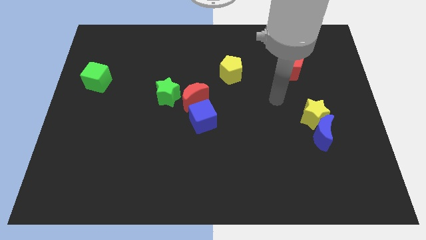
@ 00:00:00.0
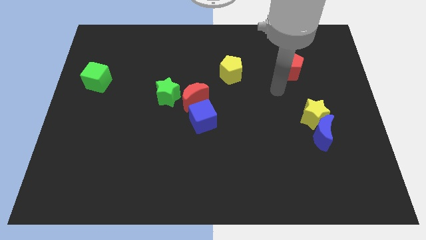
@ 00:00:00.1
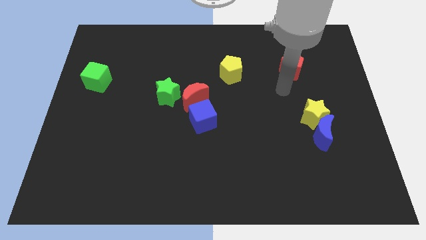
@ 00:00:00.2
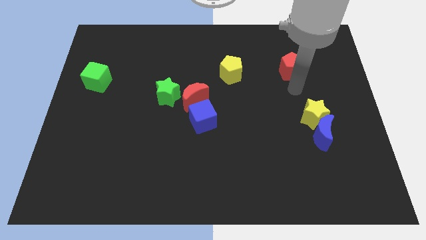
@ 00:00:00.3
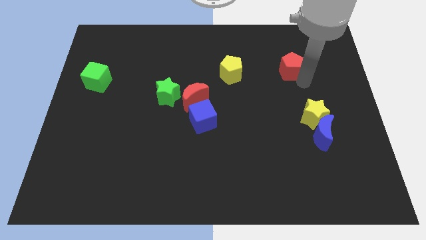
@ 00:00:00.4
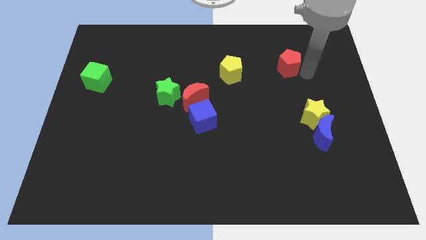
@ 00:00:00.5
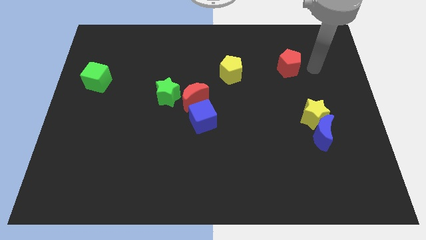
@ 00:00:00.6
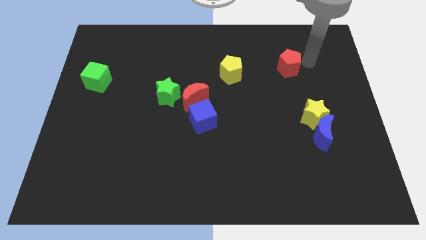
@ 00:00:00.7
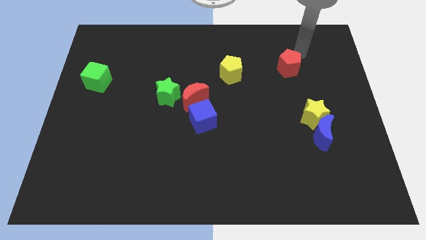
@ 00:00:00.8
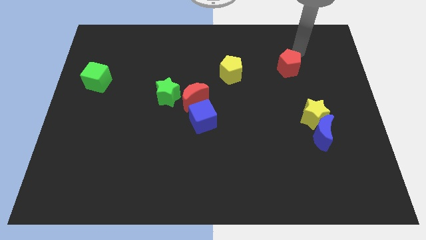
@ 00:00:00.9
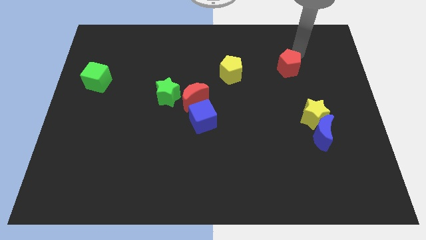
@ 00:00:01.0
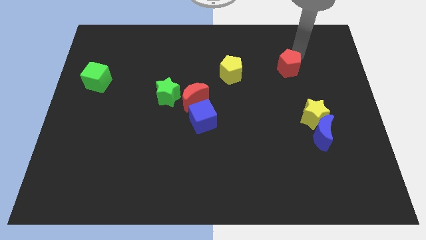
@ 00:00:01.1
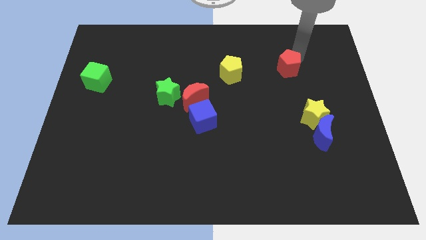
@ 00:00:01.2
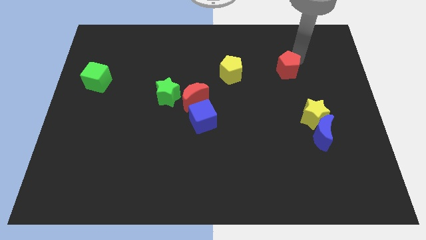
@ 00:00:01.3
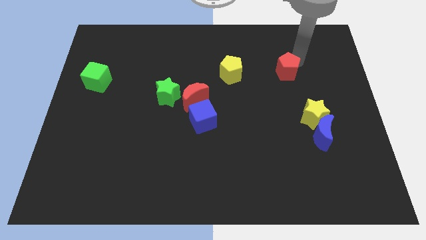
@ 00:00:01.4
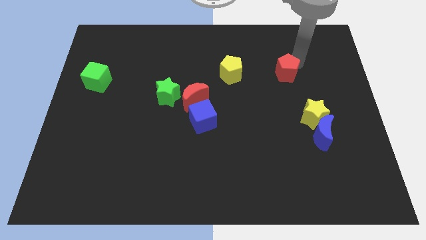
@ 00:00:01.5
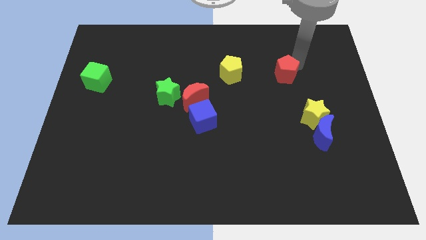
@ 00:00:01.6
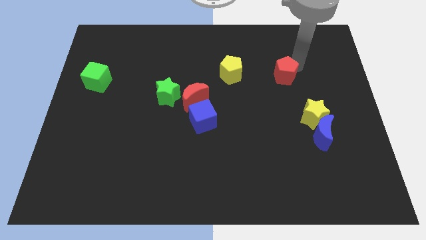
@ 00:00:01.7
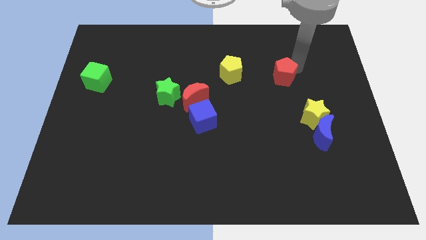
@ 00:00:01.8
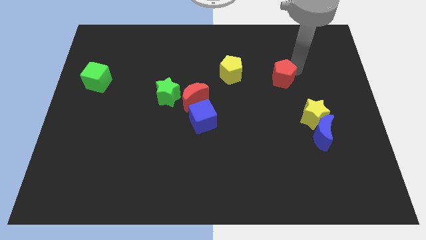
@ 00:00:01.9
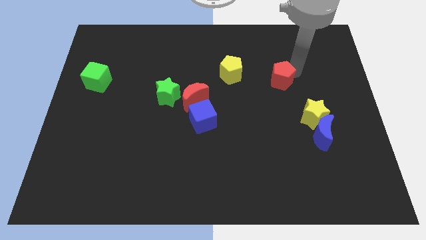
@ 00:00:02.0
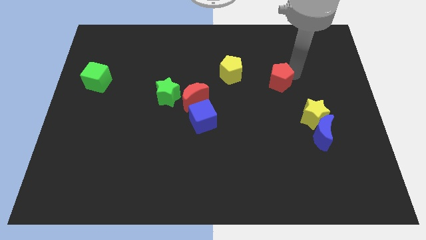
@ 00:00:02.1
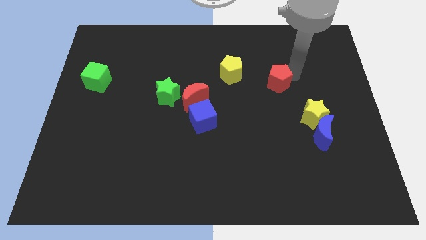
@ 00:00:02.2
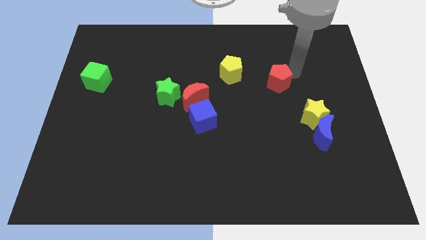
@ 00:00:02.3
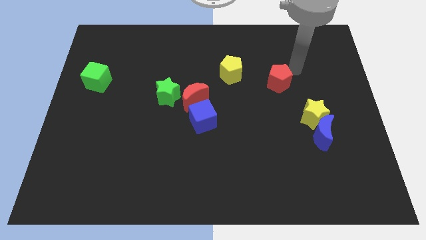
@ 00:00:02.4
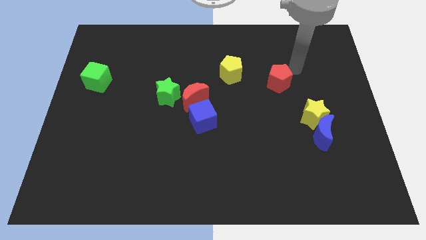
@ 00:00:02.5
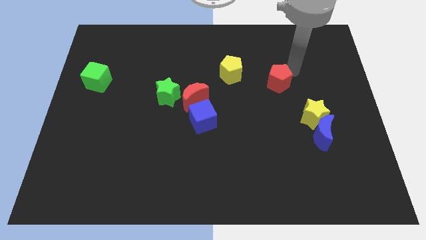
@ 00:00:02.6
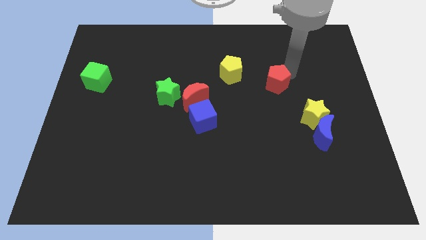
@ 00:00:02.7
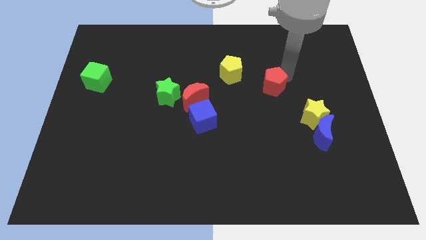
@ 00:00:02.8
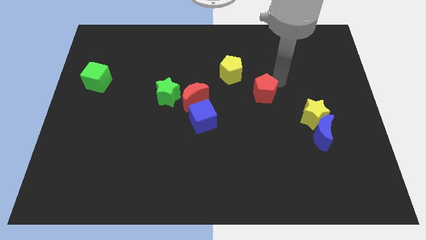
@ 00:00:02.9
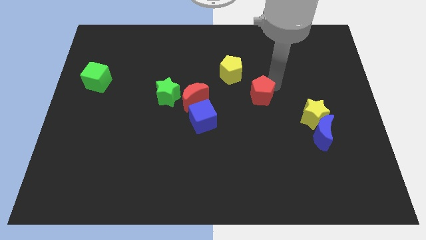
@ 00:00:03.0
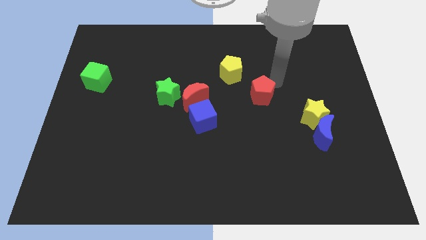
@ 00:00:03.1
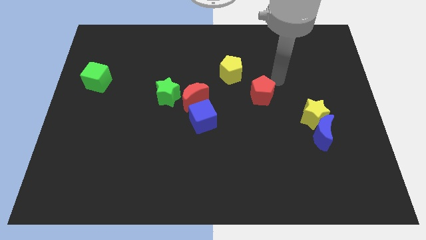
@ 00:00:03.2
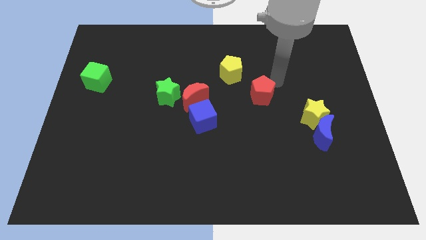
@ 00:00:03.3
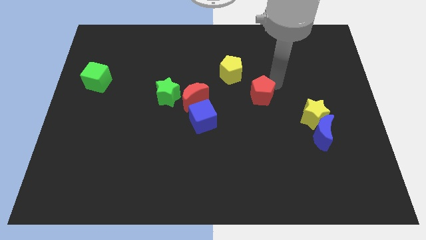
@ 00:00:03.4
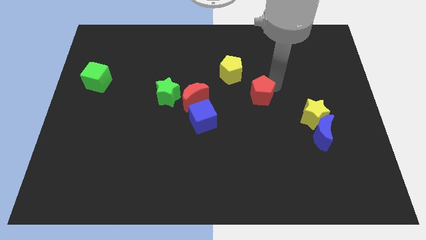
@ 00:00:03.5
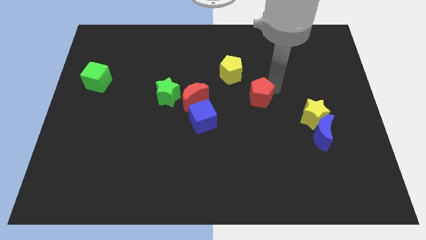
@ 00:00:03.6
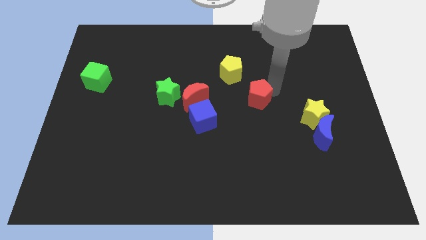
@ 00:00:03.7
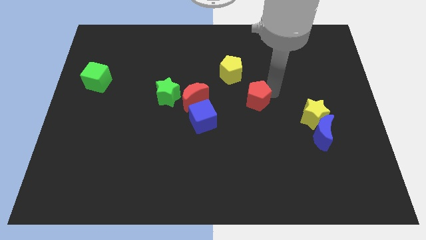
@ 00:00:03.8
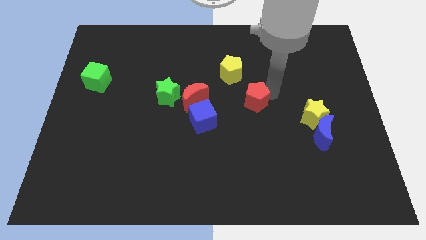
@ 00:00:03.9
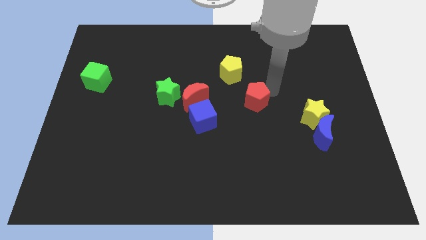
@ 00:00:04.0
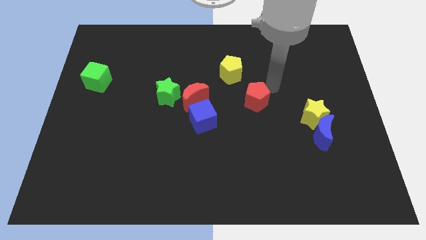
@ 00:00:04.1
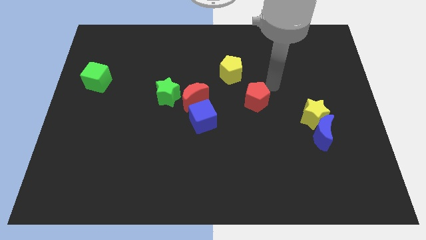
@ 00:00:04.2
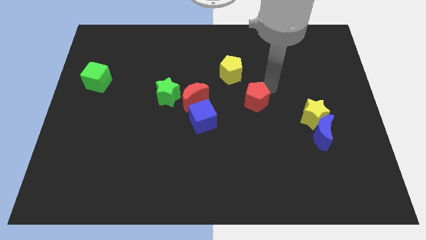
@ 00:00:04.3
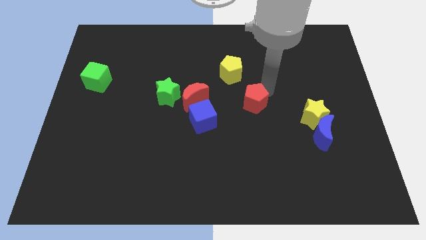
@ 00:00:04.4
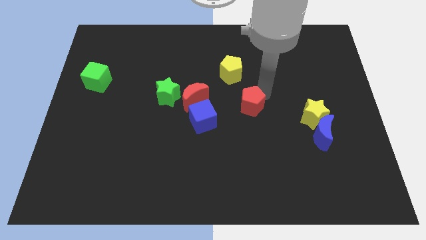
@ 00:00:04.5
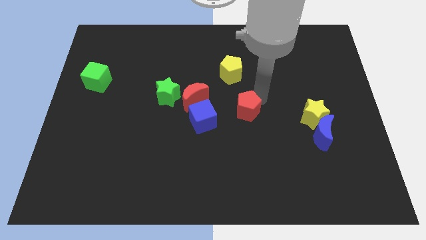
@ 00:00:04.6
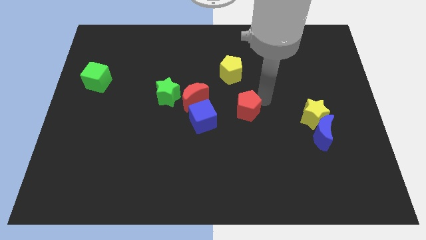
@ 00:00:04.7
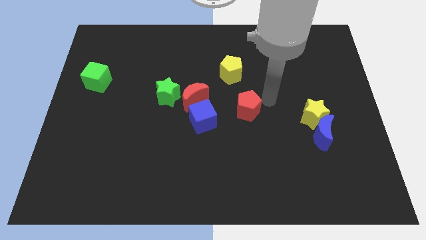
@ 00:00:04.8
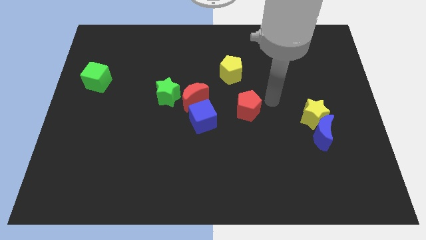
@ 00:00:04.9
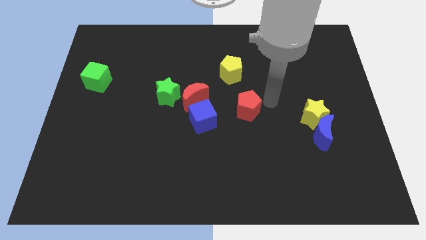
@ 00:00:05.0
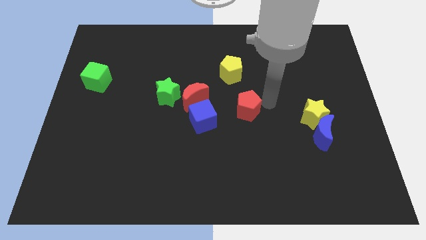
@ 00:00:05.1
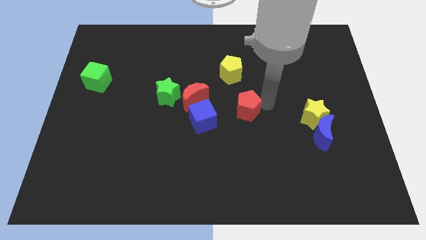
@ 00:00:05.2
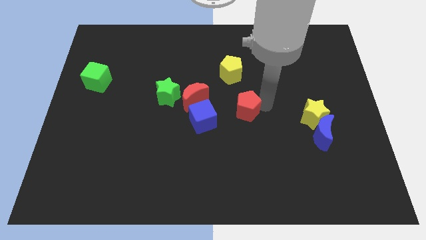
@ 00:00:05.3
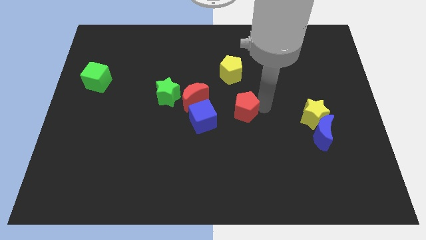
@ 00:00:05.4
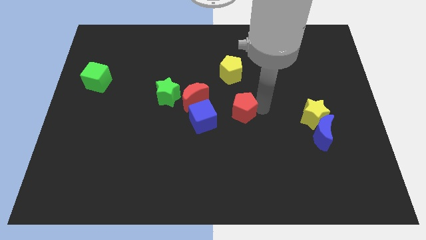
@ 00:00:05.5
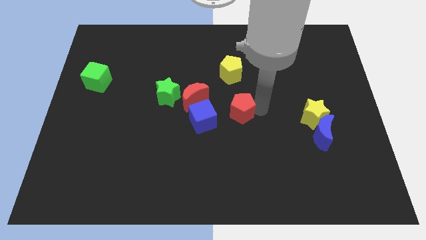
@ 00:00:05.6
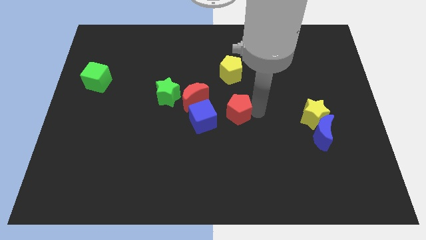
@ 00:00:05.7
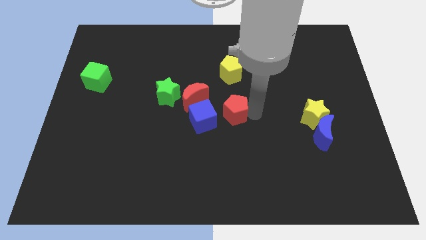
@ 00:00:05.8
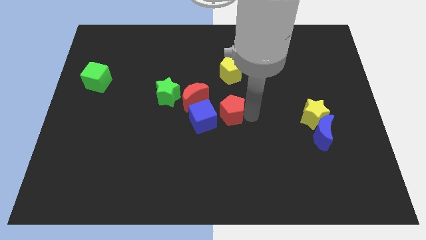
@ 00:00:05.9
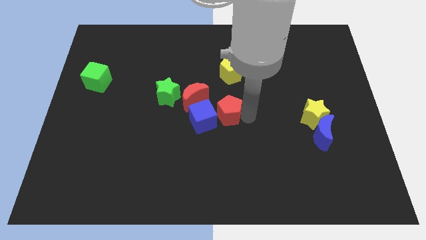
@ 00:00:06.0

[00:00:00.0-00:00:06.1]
put the red pentagon close to the blue cube

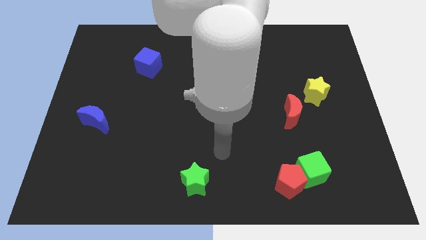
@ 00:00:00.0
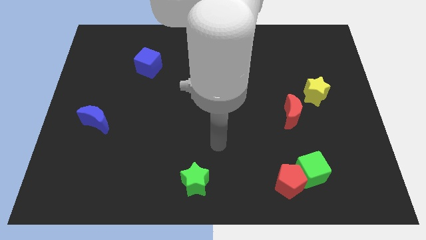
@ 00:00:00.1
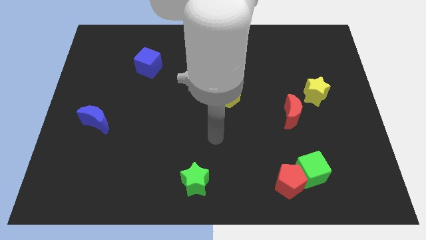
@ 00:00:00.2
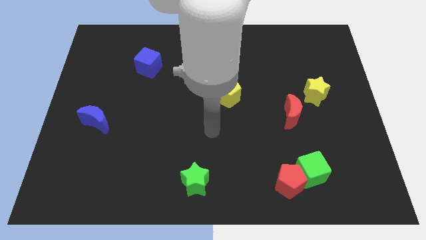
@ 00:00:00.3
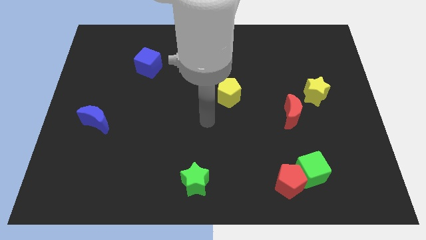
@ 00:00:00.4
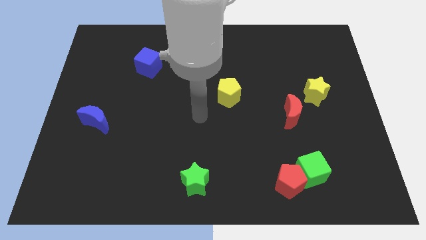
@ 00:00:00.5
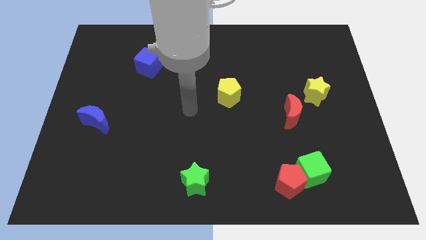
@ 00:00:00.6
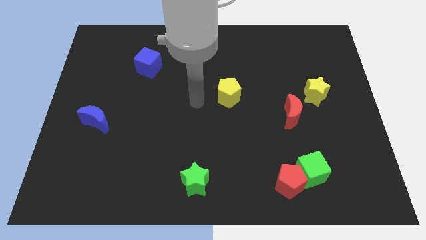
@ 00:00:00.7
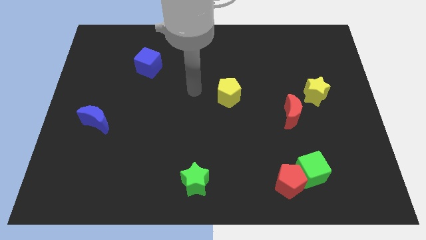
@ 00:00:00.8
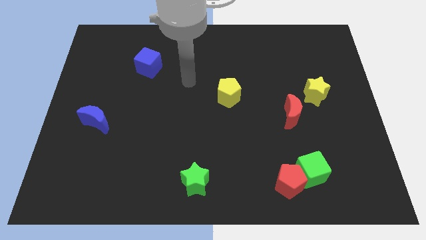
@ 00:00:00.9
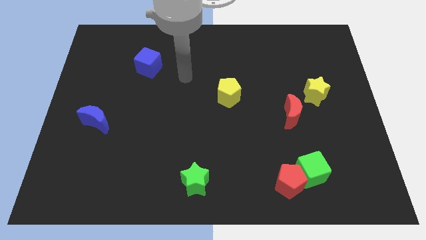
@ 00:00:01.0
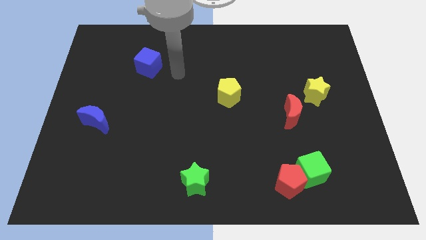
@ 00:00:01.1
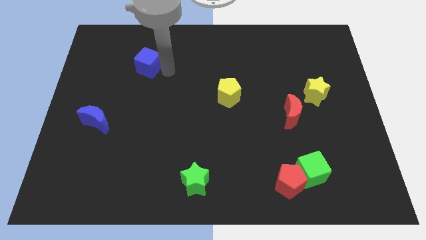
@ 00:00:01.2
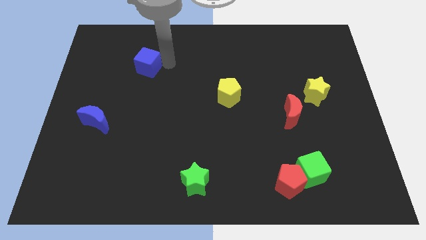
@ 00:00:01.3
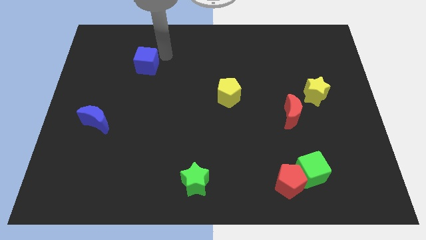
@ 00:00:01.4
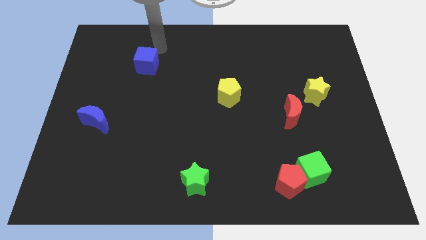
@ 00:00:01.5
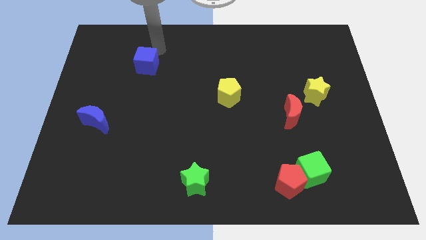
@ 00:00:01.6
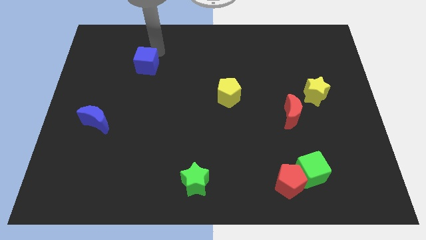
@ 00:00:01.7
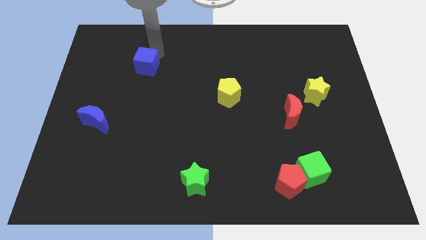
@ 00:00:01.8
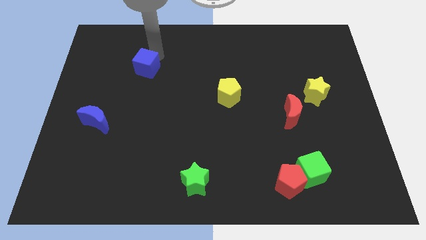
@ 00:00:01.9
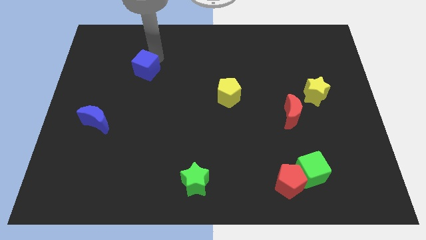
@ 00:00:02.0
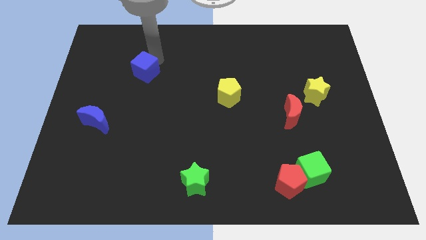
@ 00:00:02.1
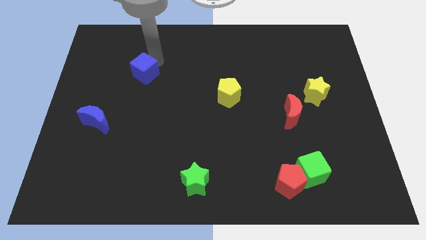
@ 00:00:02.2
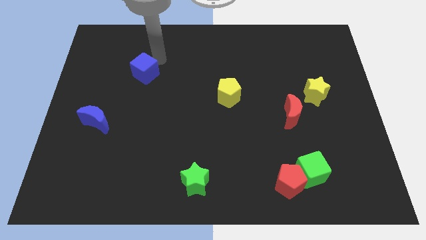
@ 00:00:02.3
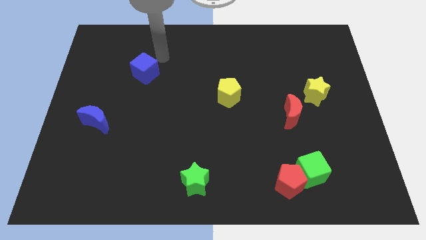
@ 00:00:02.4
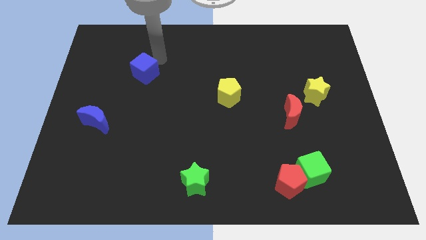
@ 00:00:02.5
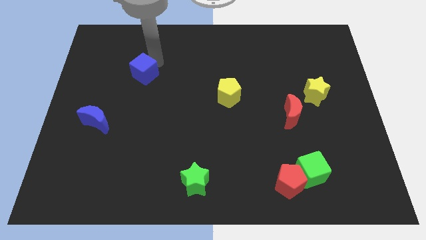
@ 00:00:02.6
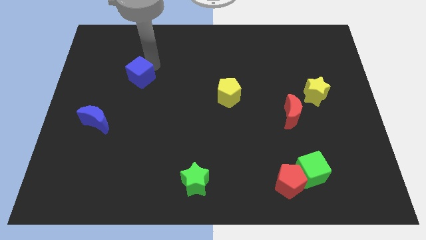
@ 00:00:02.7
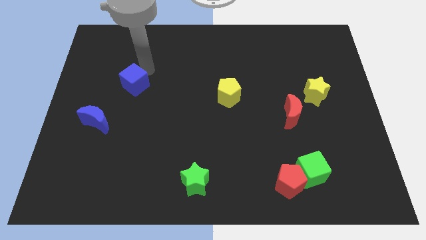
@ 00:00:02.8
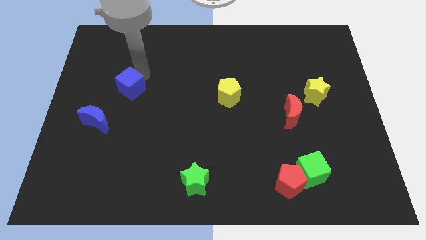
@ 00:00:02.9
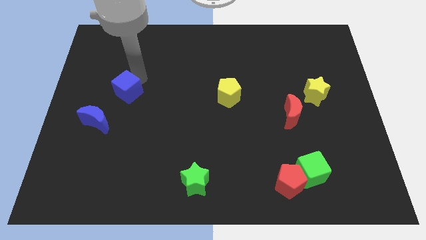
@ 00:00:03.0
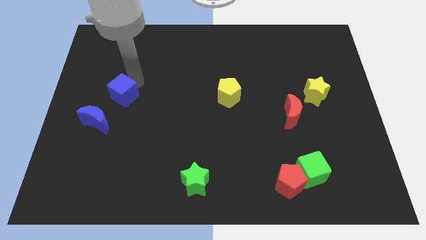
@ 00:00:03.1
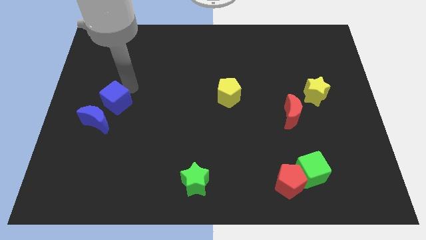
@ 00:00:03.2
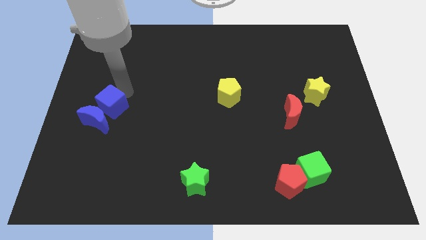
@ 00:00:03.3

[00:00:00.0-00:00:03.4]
move the blue cube towards the blue moon
